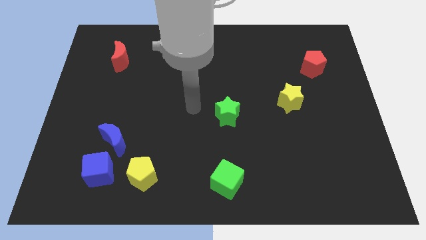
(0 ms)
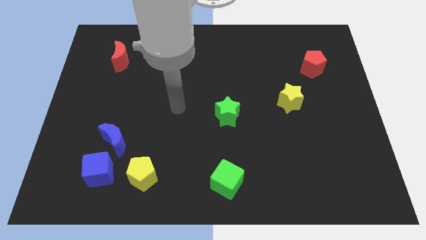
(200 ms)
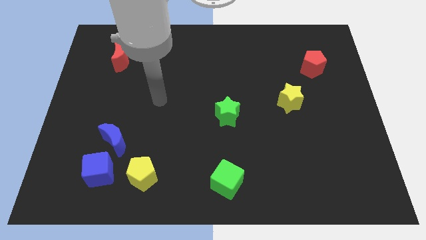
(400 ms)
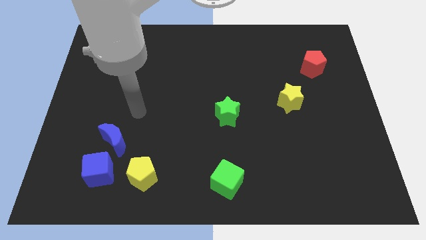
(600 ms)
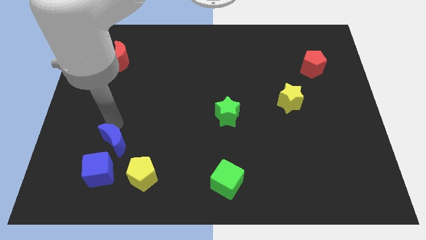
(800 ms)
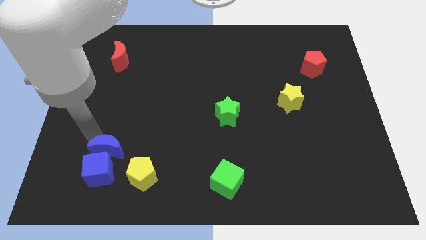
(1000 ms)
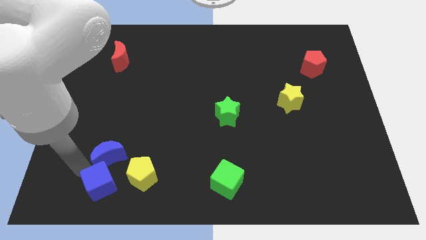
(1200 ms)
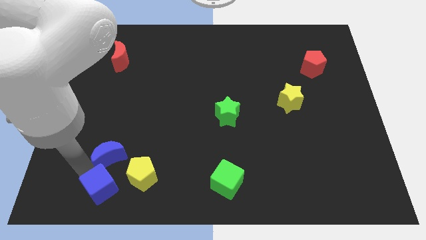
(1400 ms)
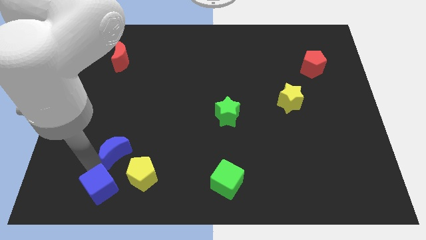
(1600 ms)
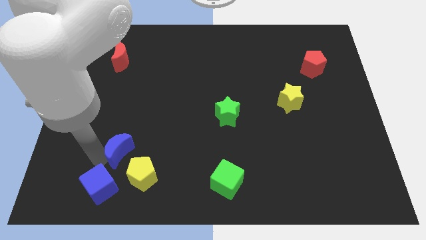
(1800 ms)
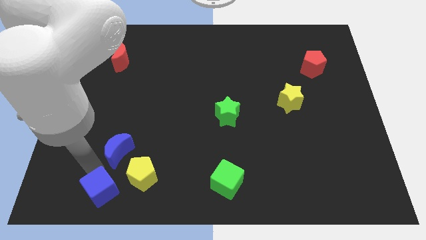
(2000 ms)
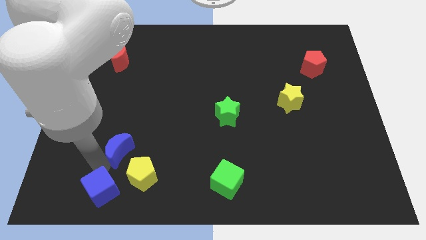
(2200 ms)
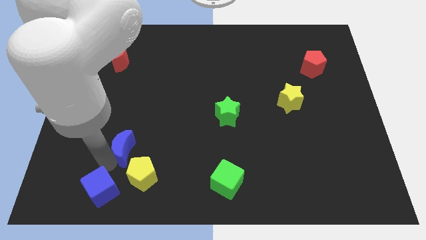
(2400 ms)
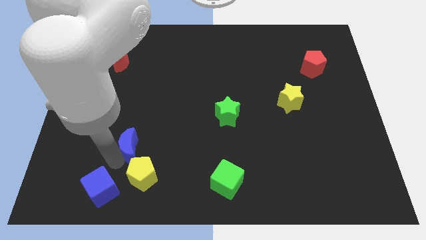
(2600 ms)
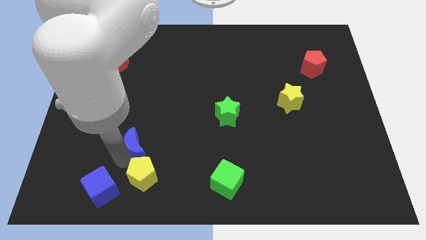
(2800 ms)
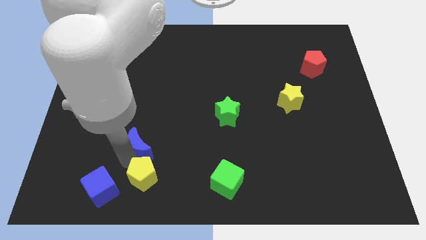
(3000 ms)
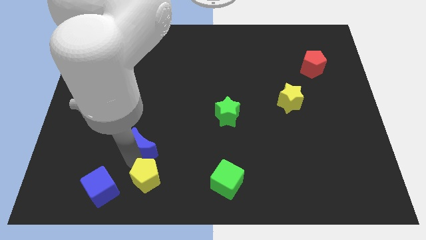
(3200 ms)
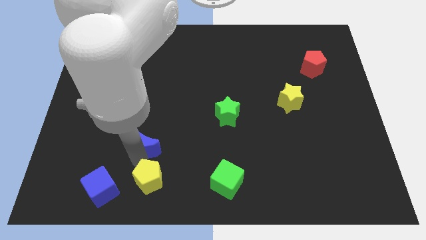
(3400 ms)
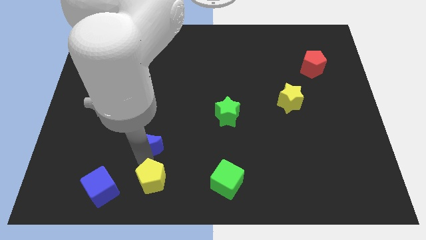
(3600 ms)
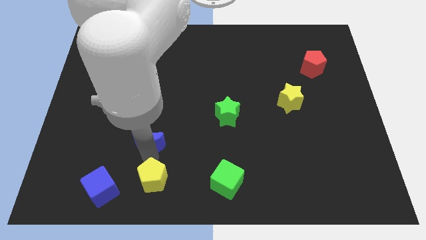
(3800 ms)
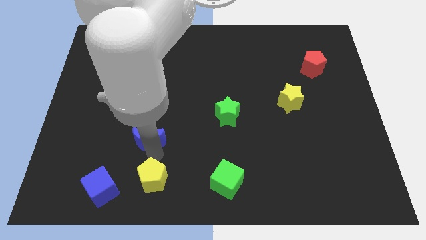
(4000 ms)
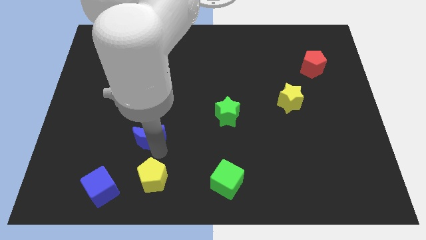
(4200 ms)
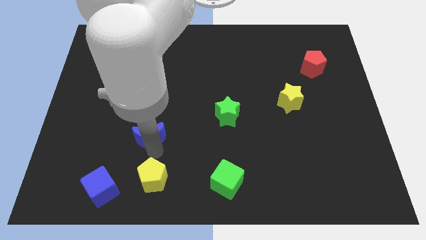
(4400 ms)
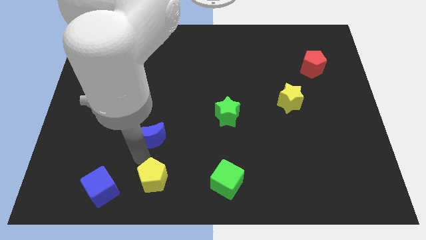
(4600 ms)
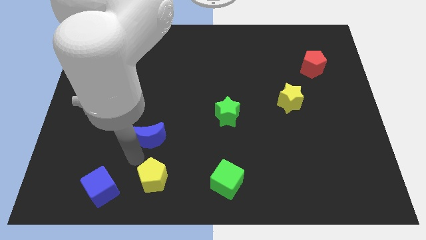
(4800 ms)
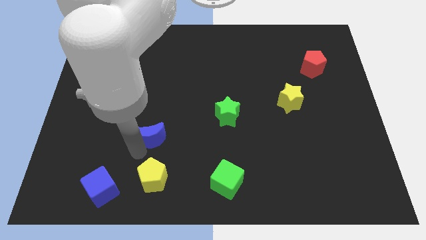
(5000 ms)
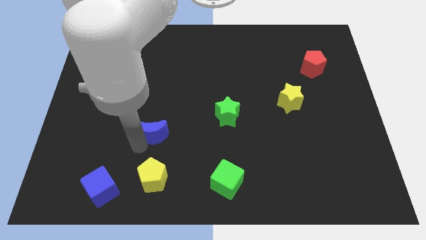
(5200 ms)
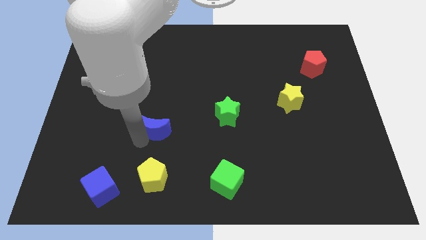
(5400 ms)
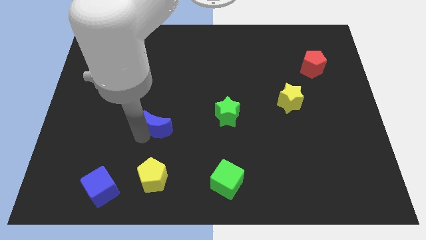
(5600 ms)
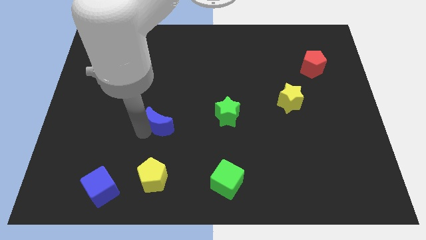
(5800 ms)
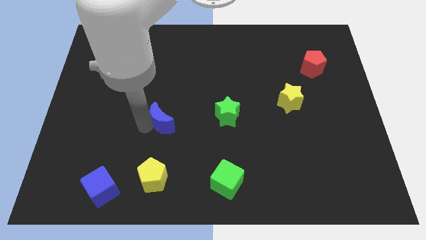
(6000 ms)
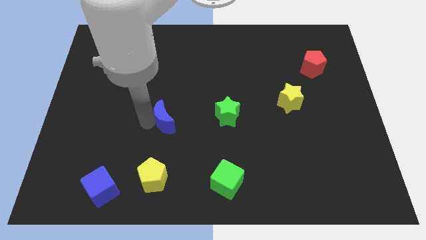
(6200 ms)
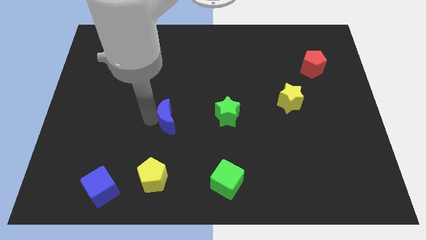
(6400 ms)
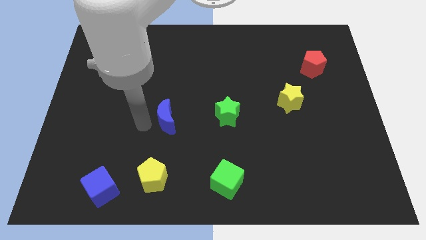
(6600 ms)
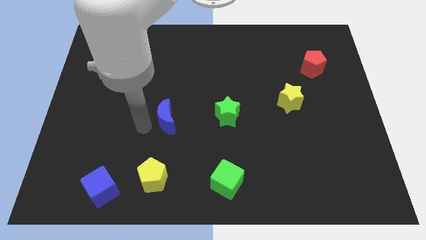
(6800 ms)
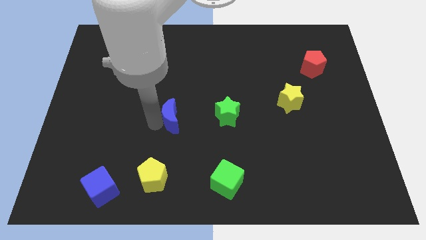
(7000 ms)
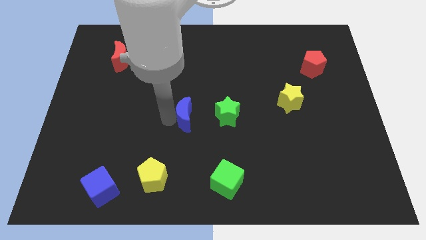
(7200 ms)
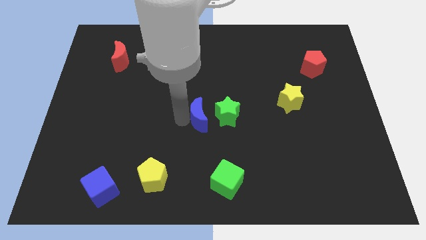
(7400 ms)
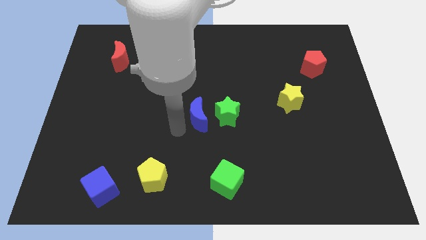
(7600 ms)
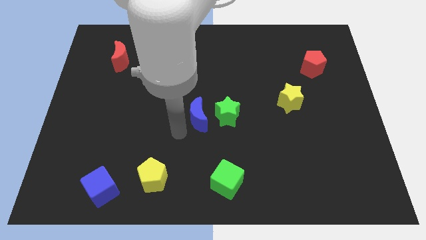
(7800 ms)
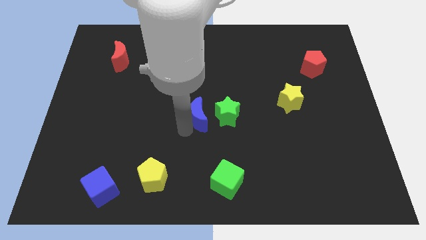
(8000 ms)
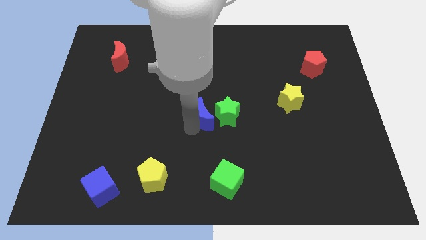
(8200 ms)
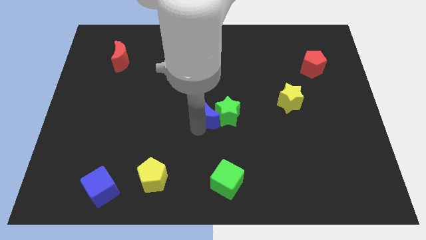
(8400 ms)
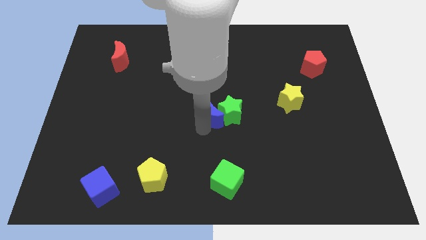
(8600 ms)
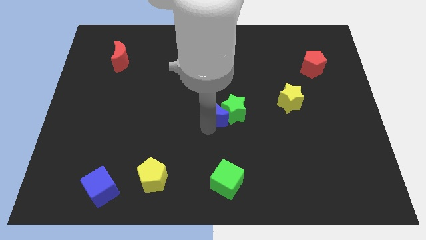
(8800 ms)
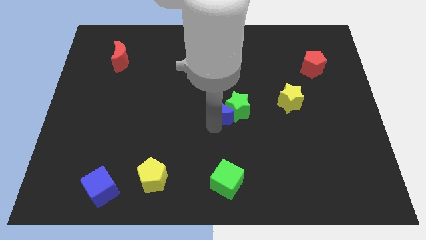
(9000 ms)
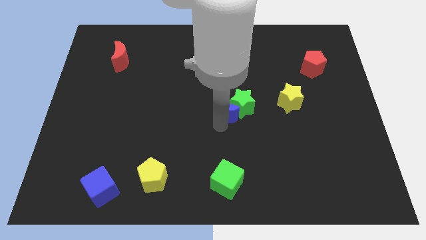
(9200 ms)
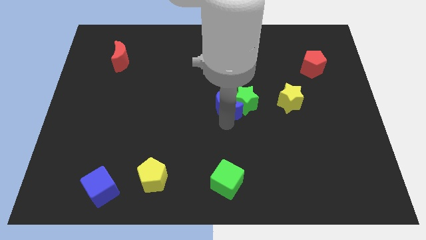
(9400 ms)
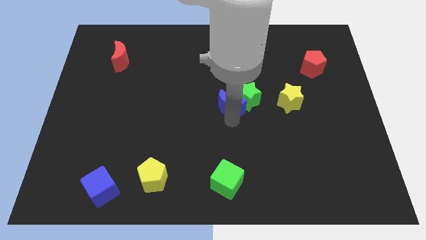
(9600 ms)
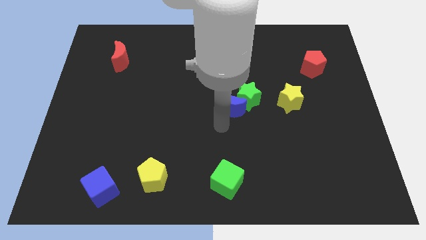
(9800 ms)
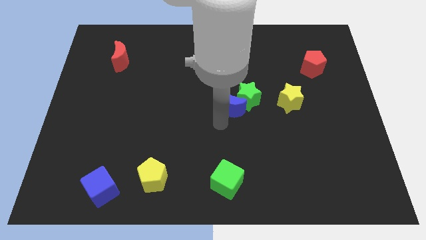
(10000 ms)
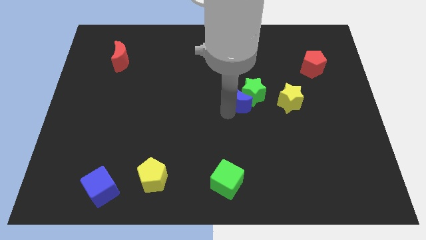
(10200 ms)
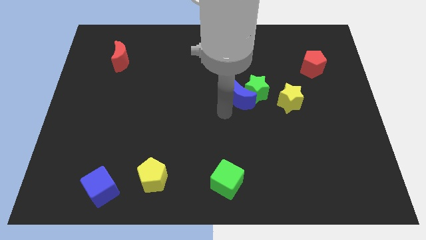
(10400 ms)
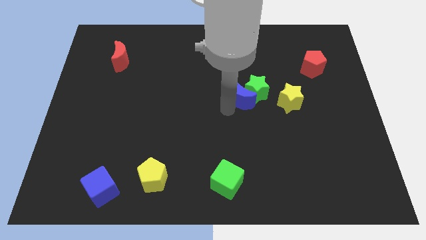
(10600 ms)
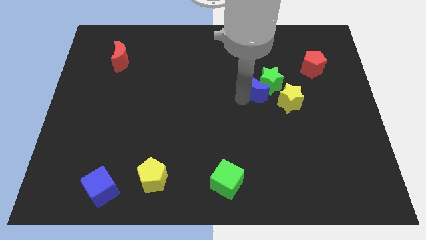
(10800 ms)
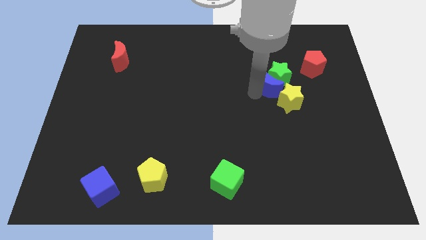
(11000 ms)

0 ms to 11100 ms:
slide the blue moon to the top of the yellow star

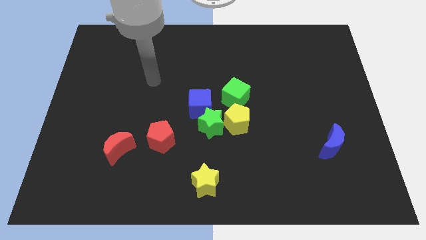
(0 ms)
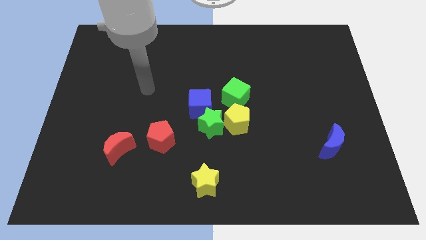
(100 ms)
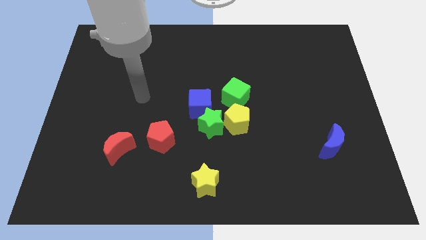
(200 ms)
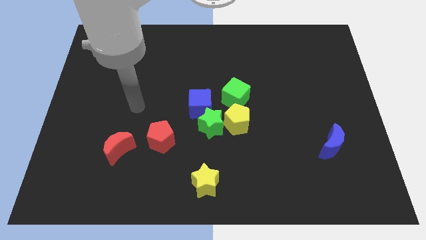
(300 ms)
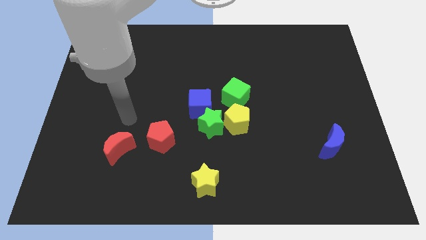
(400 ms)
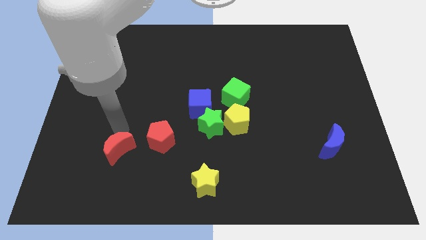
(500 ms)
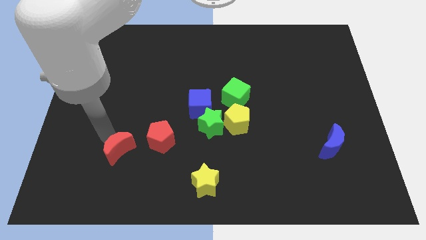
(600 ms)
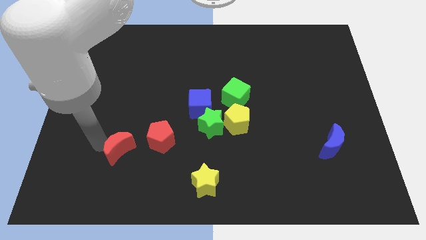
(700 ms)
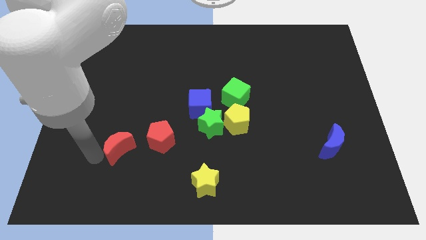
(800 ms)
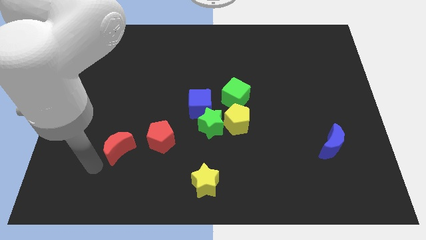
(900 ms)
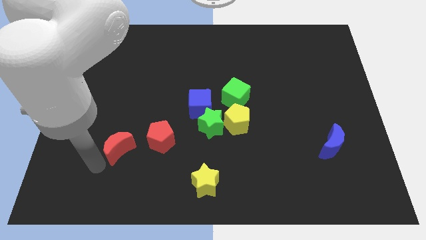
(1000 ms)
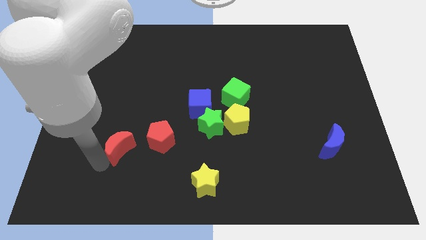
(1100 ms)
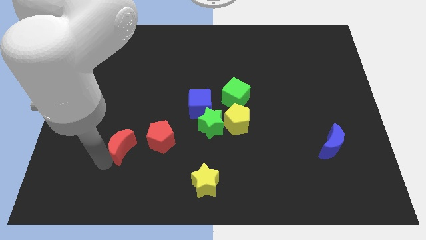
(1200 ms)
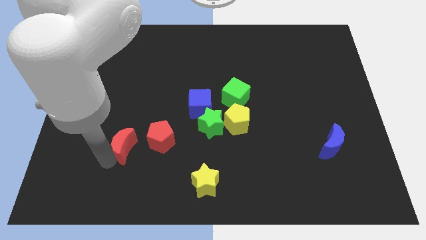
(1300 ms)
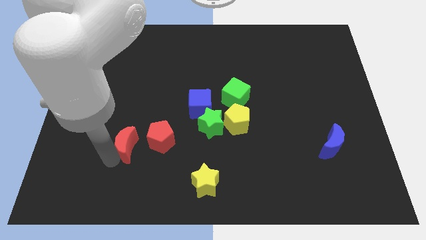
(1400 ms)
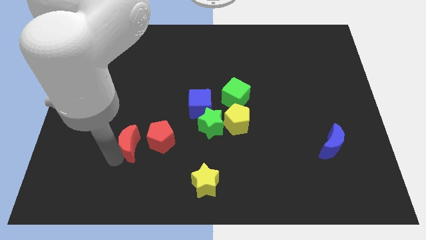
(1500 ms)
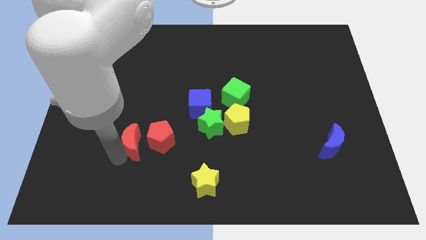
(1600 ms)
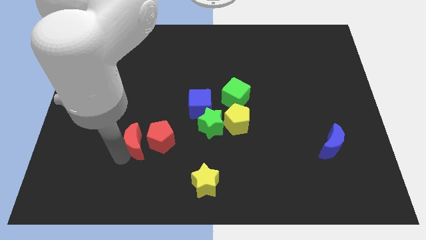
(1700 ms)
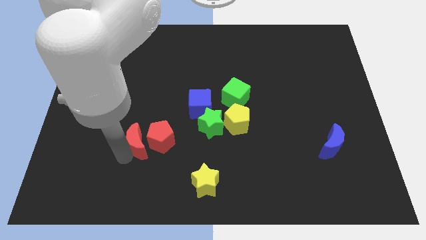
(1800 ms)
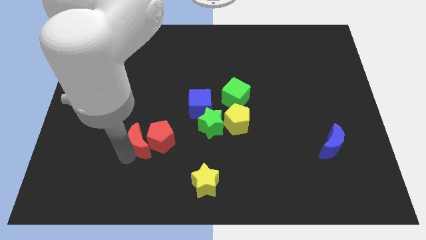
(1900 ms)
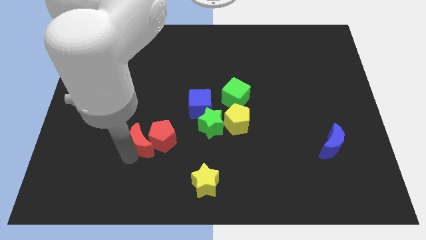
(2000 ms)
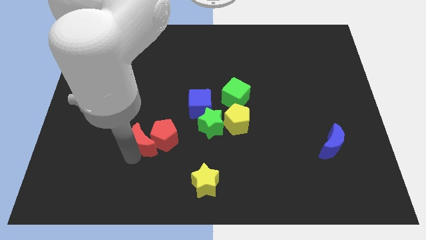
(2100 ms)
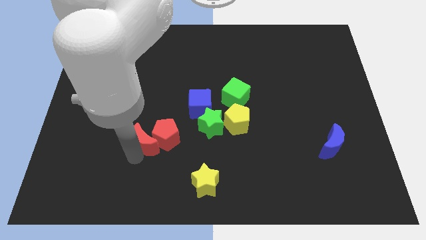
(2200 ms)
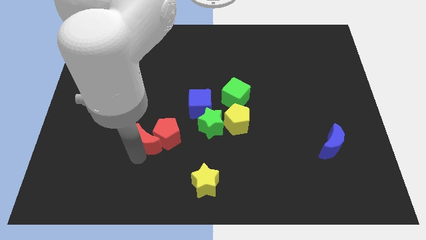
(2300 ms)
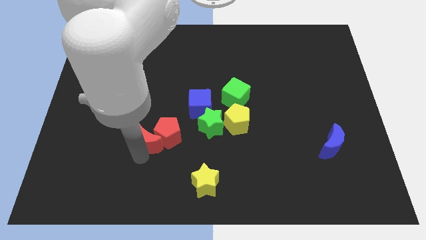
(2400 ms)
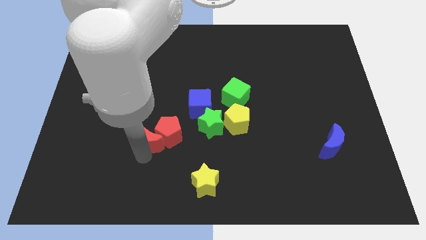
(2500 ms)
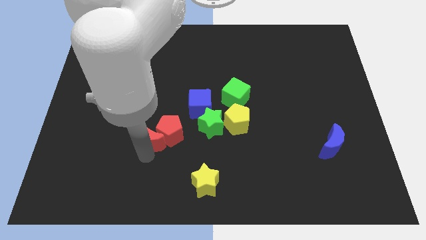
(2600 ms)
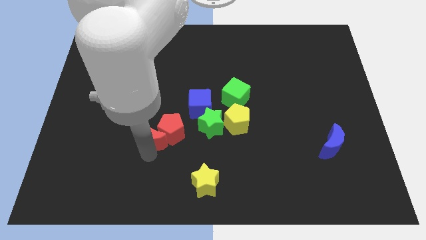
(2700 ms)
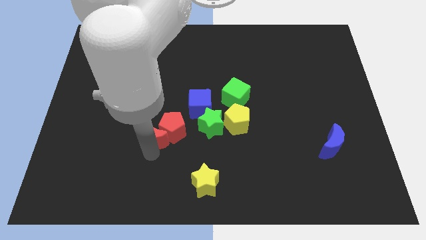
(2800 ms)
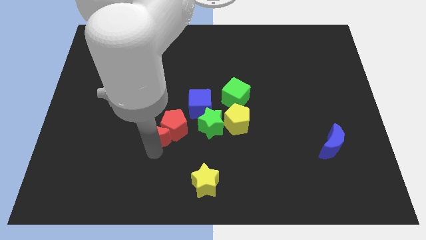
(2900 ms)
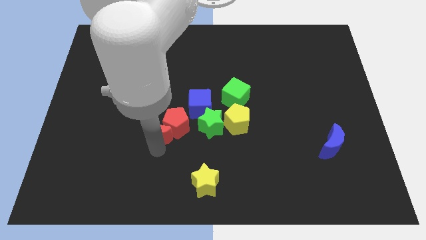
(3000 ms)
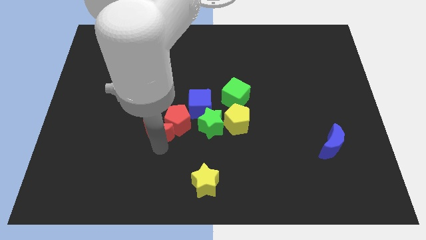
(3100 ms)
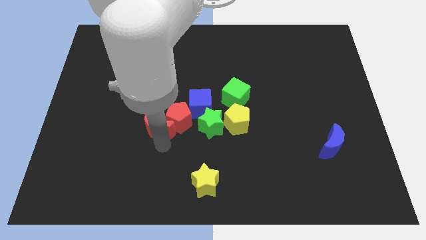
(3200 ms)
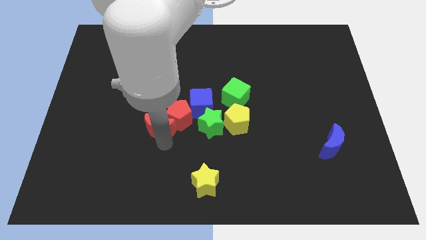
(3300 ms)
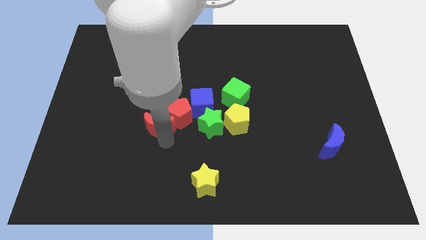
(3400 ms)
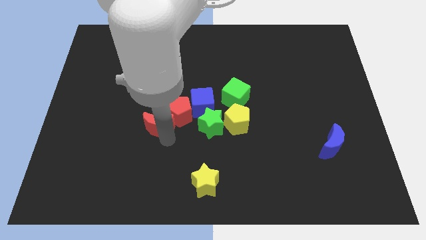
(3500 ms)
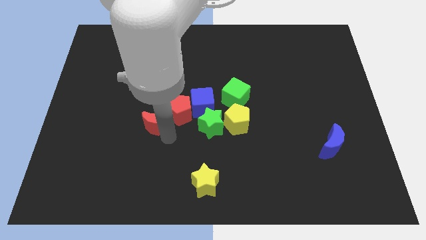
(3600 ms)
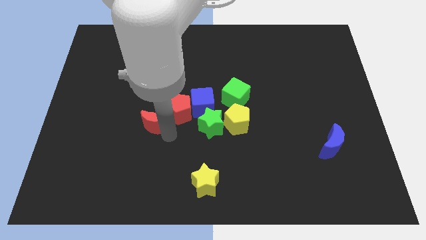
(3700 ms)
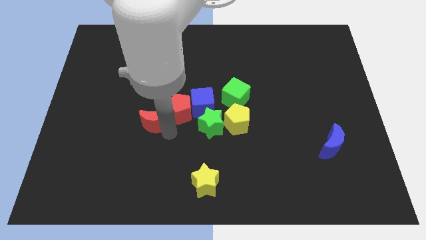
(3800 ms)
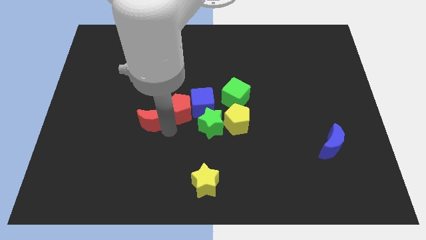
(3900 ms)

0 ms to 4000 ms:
push the red moon left of the blue cube
